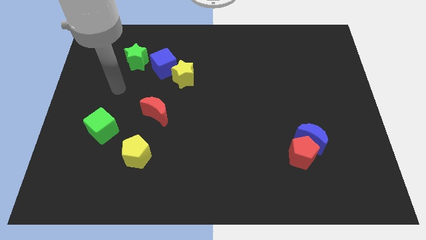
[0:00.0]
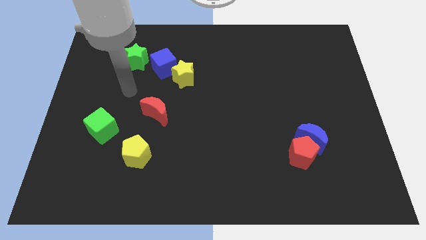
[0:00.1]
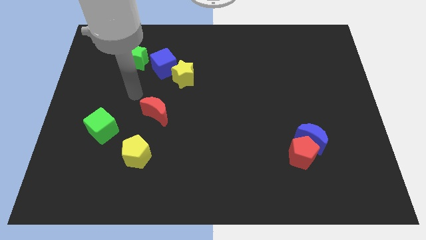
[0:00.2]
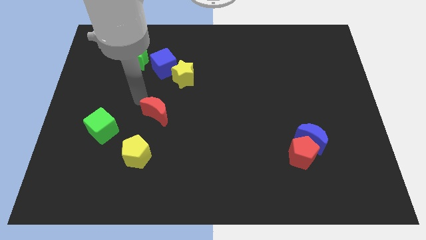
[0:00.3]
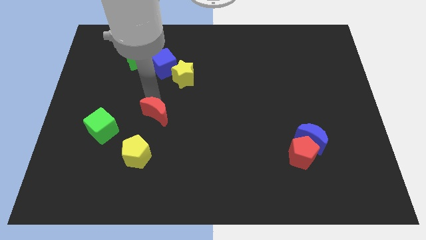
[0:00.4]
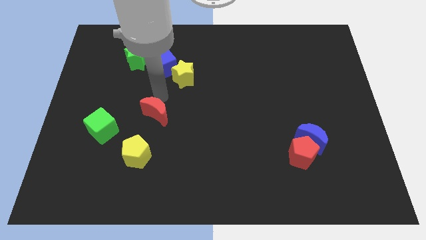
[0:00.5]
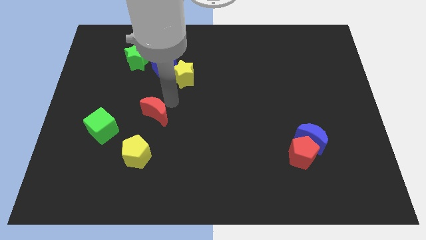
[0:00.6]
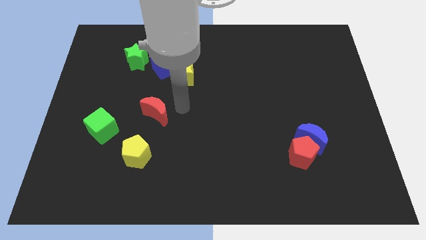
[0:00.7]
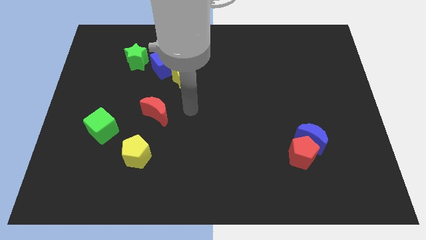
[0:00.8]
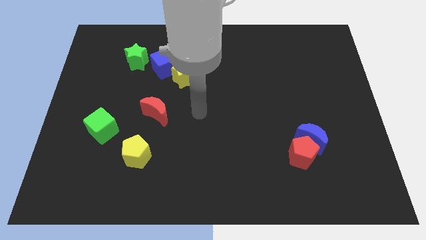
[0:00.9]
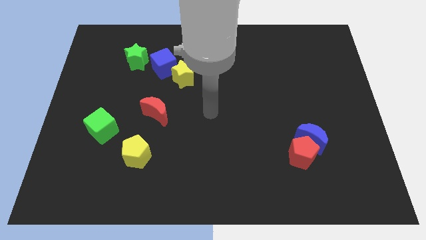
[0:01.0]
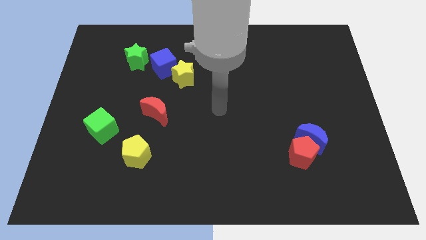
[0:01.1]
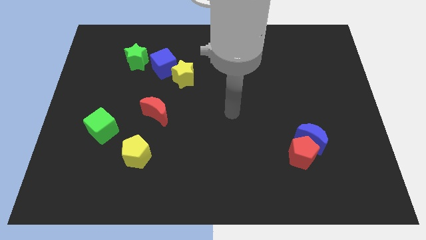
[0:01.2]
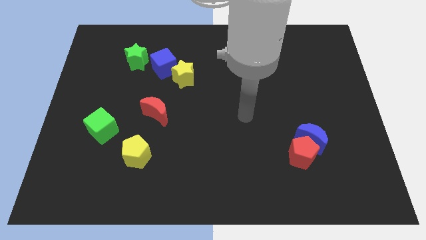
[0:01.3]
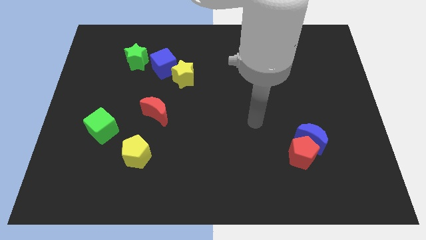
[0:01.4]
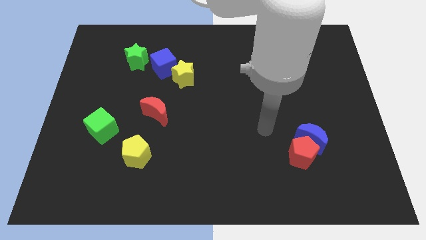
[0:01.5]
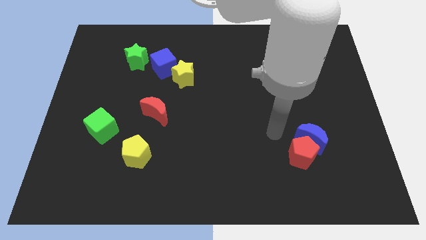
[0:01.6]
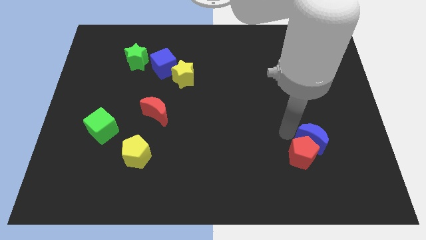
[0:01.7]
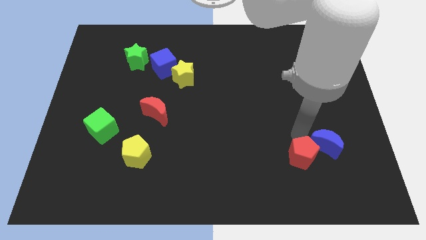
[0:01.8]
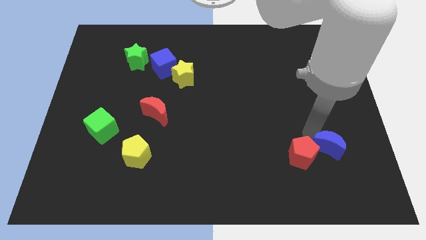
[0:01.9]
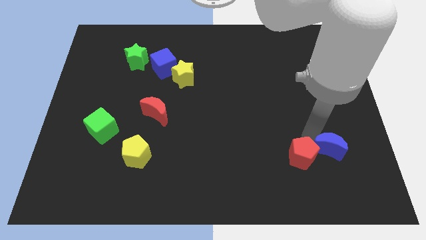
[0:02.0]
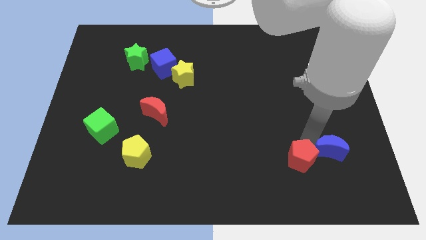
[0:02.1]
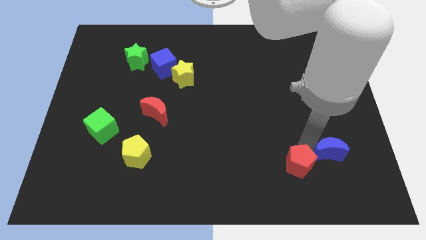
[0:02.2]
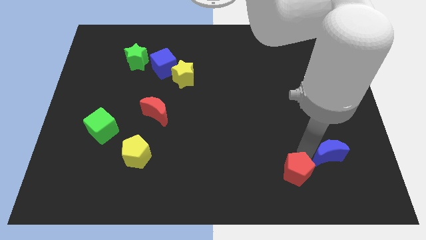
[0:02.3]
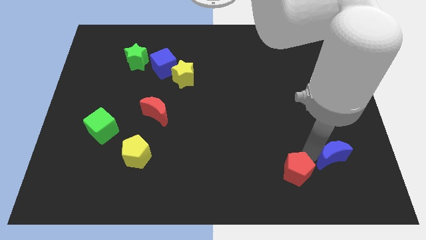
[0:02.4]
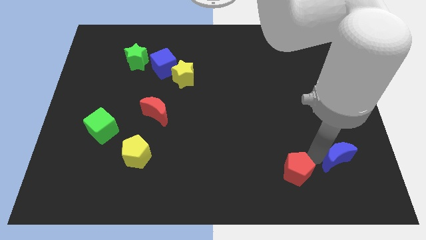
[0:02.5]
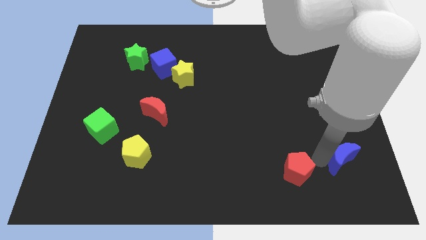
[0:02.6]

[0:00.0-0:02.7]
separate the red pentagon from the blue moon

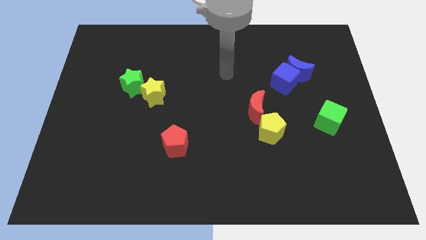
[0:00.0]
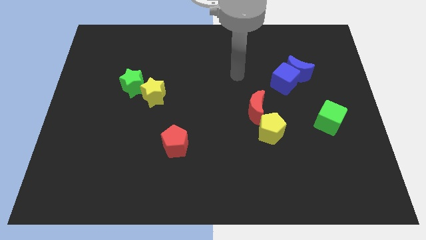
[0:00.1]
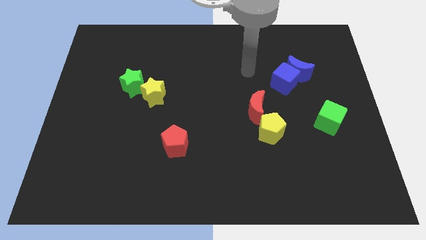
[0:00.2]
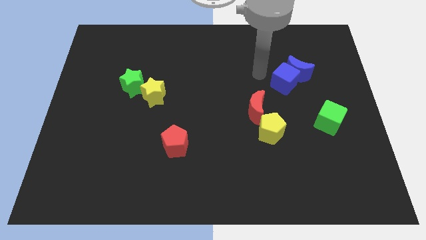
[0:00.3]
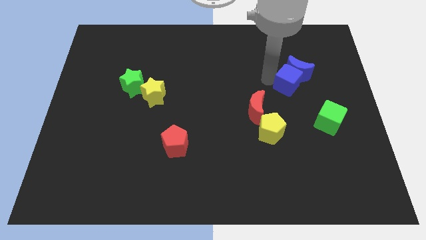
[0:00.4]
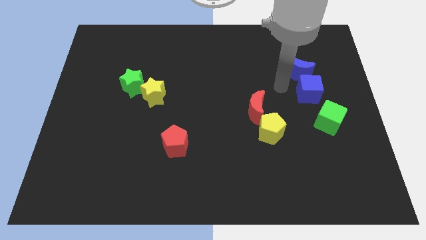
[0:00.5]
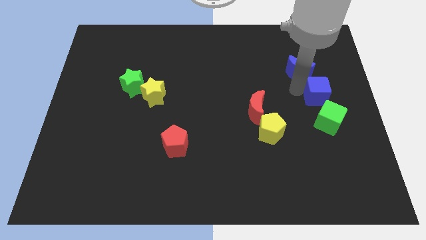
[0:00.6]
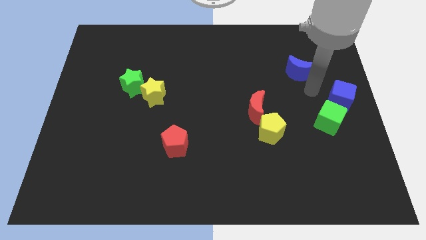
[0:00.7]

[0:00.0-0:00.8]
move the blue moon away from the blue cube

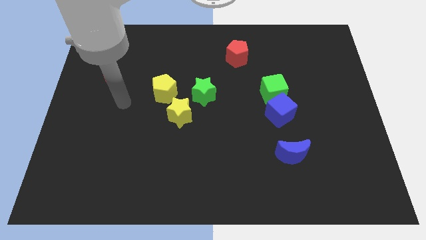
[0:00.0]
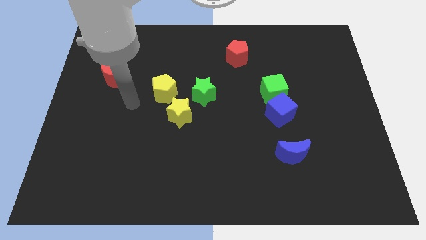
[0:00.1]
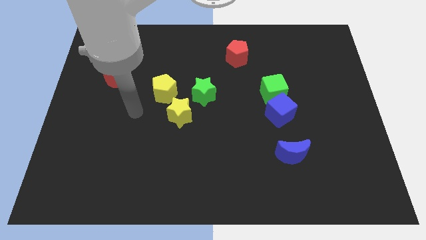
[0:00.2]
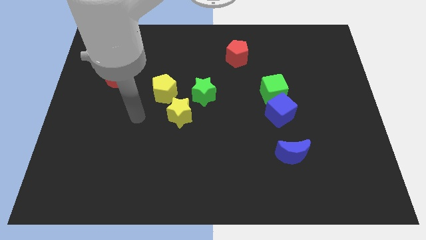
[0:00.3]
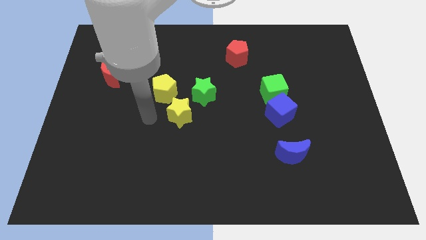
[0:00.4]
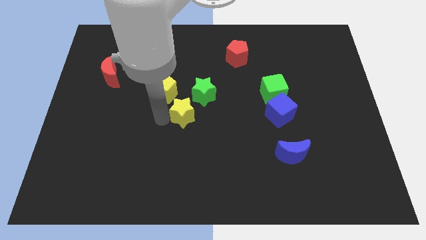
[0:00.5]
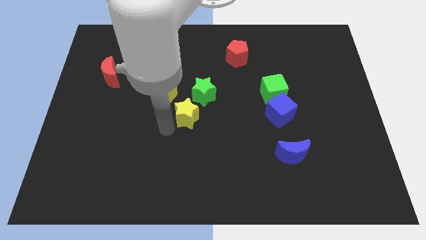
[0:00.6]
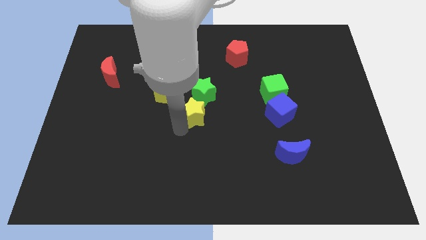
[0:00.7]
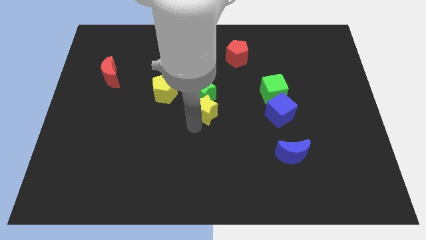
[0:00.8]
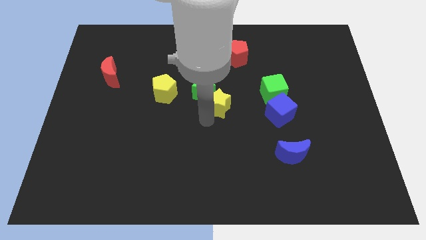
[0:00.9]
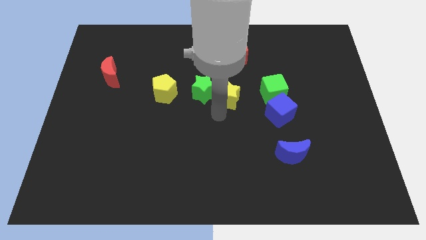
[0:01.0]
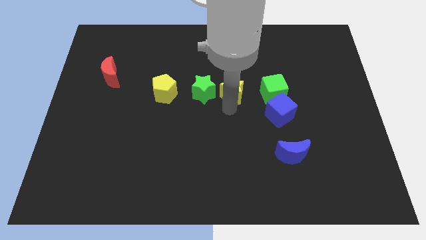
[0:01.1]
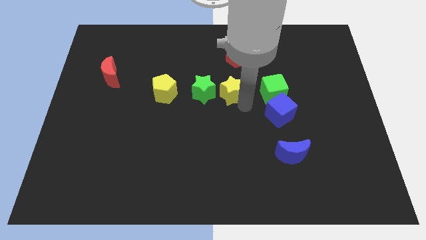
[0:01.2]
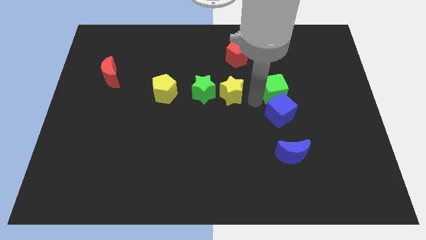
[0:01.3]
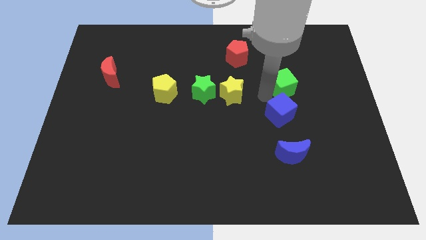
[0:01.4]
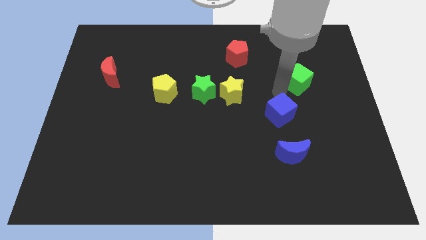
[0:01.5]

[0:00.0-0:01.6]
move the blue cube away from the green cube

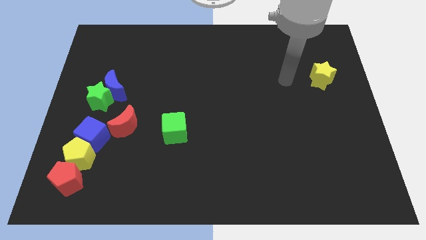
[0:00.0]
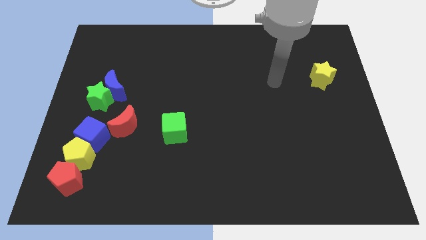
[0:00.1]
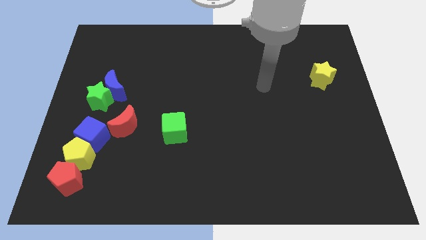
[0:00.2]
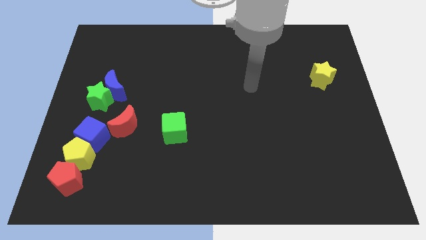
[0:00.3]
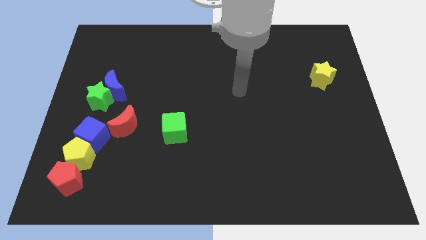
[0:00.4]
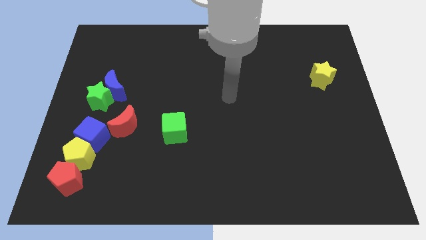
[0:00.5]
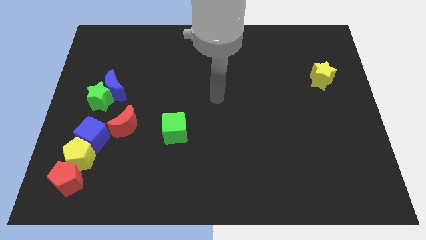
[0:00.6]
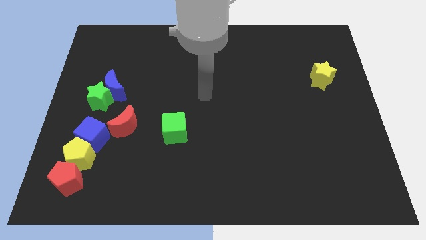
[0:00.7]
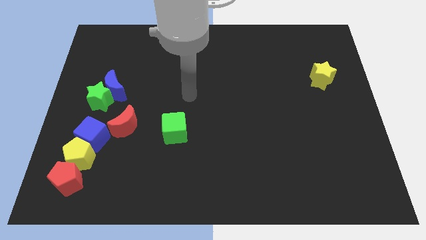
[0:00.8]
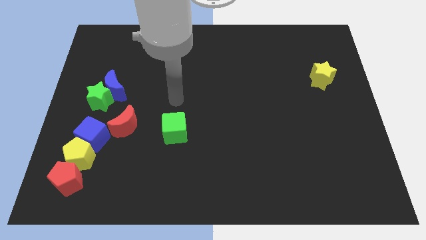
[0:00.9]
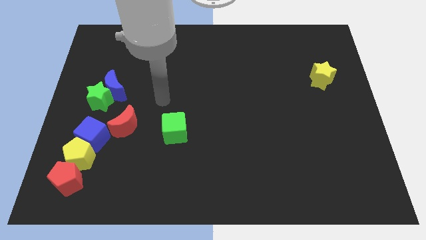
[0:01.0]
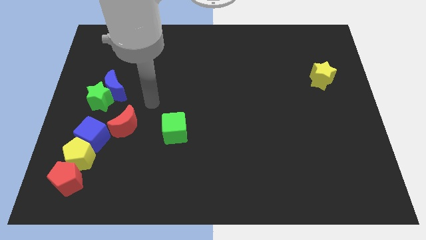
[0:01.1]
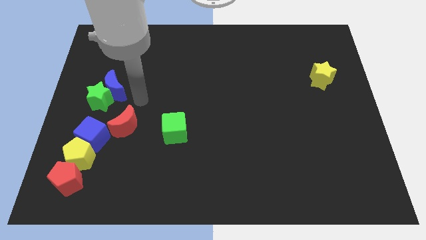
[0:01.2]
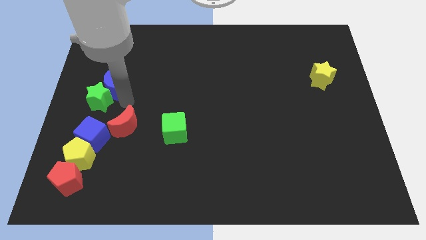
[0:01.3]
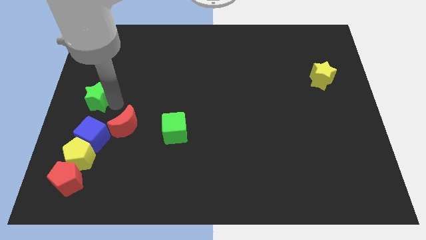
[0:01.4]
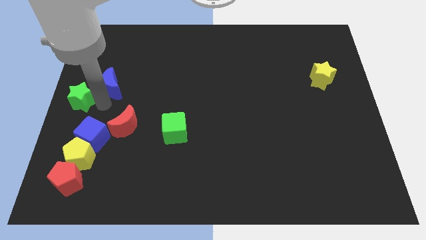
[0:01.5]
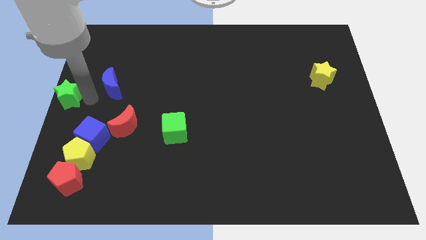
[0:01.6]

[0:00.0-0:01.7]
pull the blue moon apart from the green star

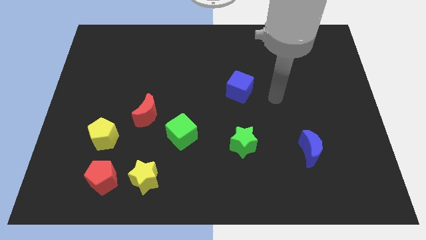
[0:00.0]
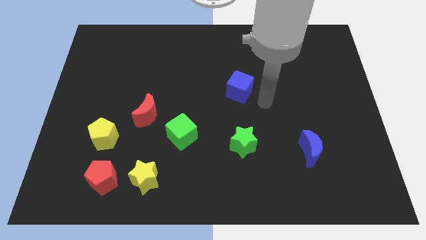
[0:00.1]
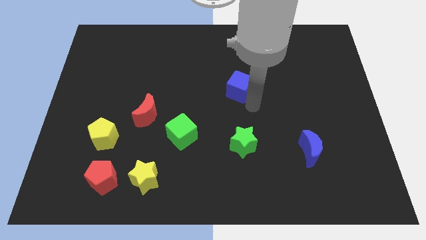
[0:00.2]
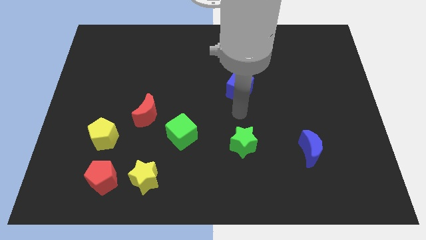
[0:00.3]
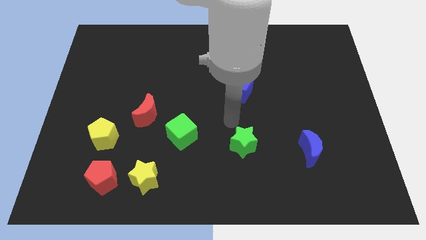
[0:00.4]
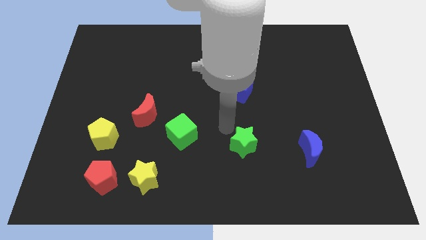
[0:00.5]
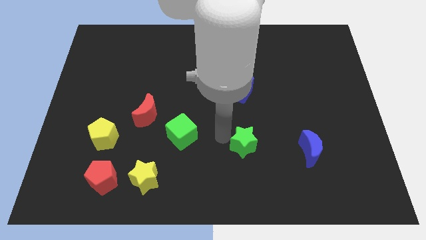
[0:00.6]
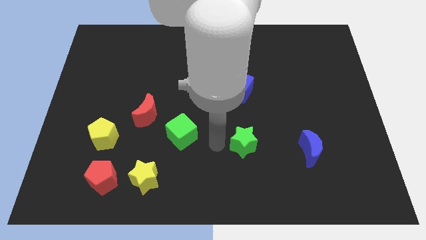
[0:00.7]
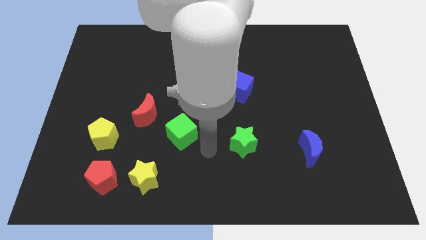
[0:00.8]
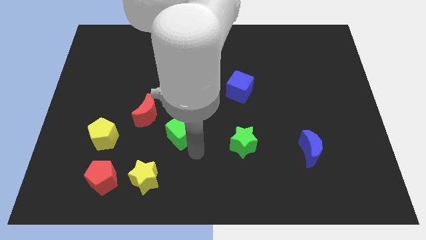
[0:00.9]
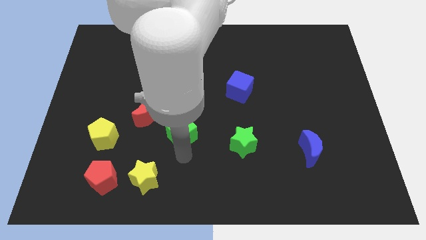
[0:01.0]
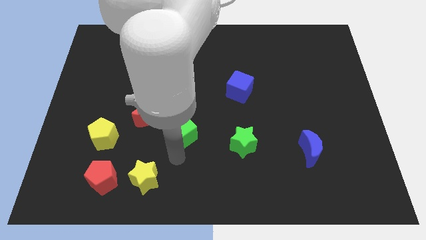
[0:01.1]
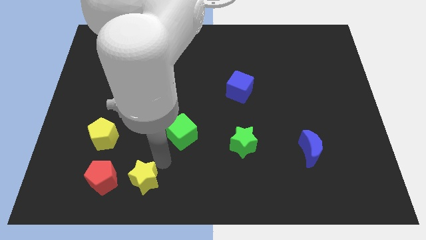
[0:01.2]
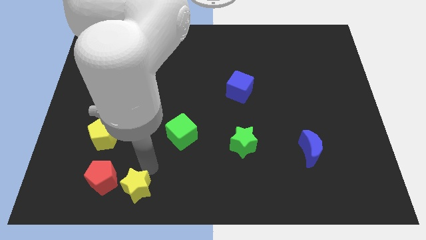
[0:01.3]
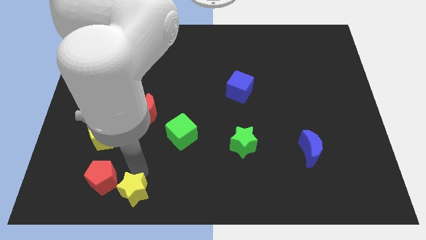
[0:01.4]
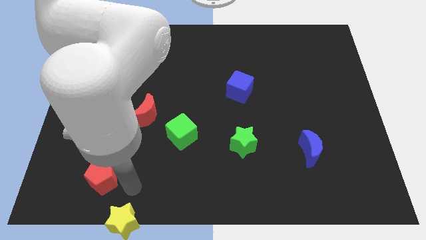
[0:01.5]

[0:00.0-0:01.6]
separate the red pentagon from the yellow star

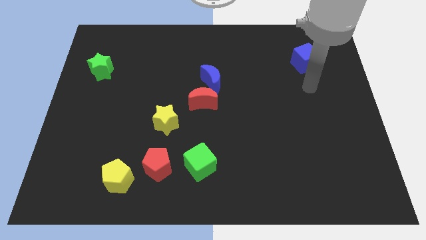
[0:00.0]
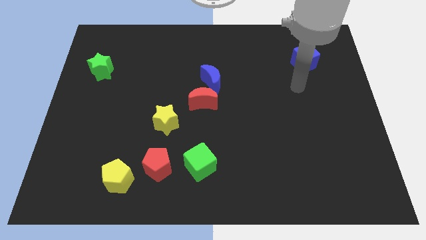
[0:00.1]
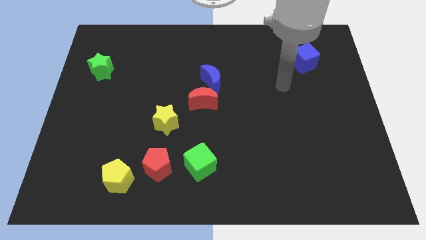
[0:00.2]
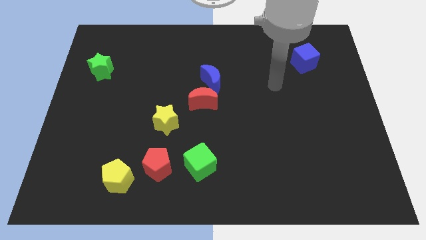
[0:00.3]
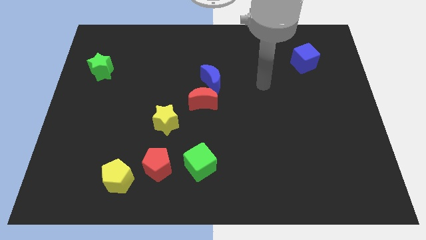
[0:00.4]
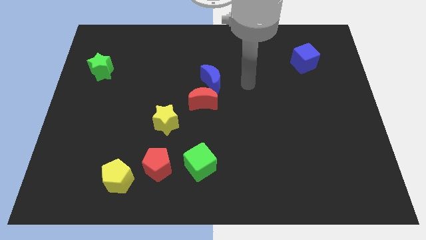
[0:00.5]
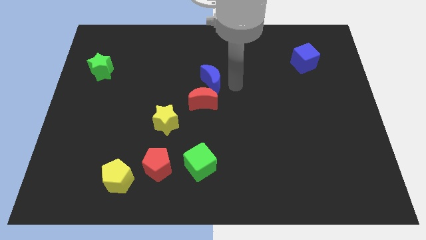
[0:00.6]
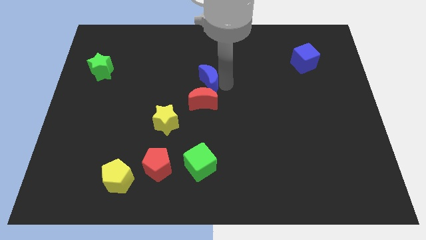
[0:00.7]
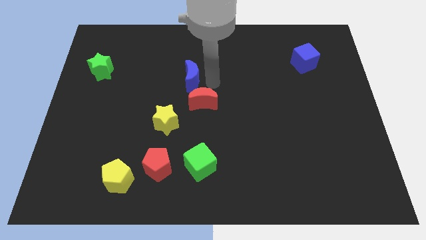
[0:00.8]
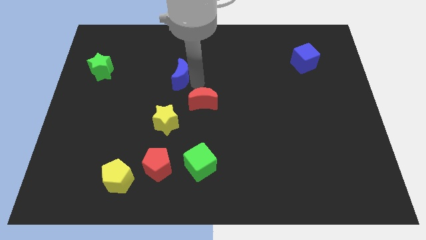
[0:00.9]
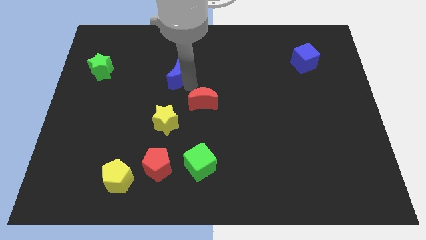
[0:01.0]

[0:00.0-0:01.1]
move the red moon away from the blue moon
